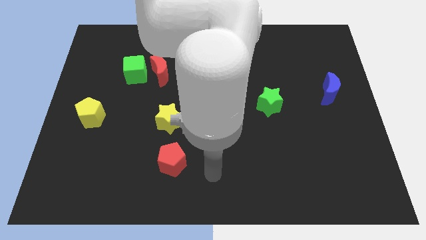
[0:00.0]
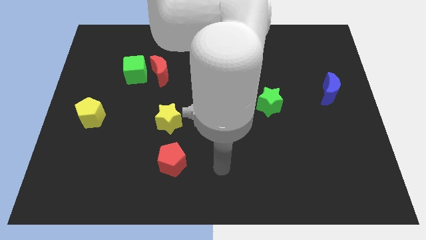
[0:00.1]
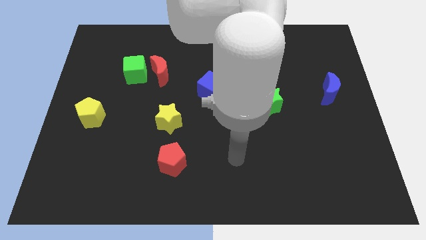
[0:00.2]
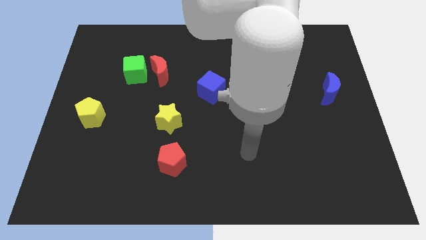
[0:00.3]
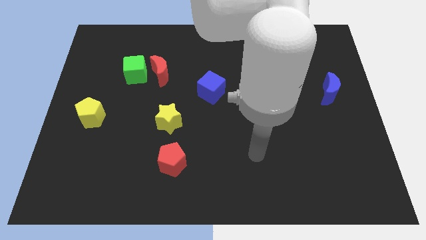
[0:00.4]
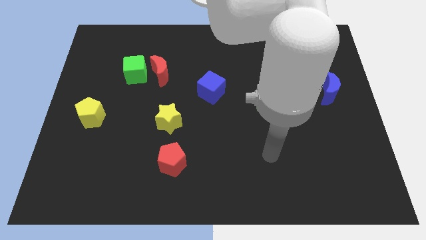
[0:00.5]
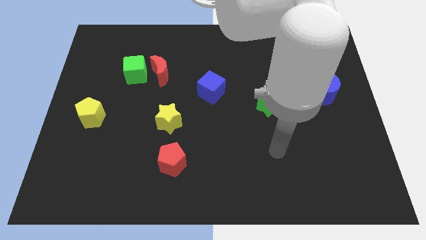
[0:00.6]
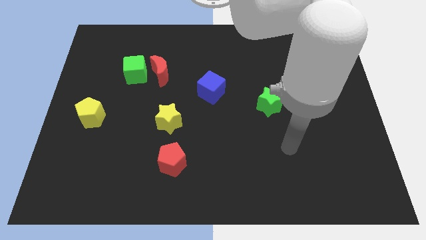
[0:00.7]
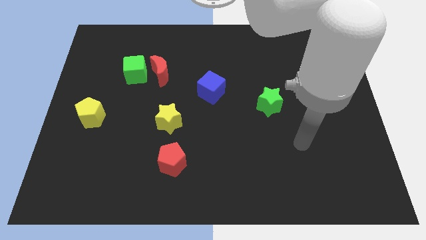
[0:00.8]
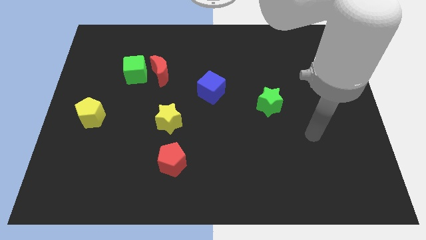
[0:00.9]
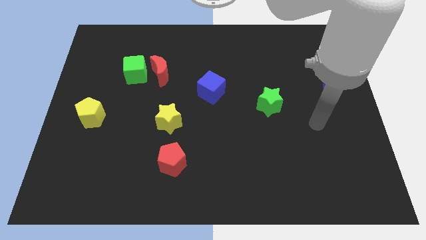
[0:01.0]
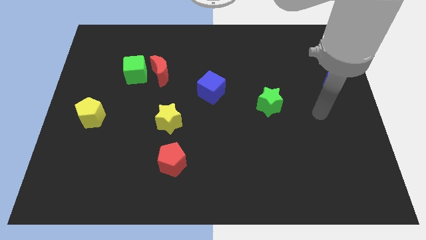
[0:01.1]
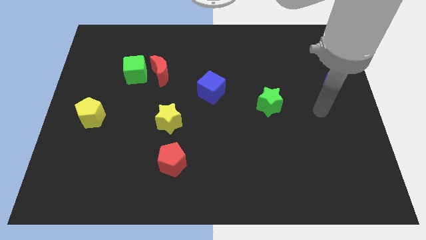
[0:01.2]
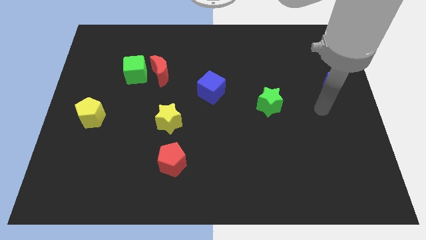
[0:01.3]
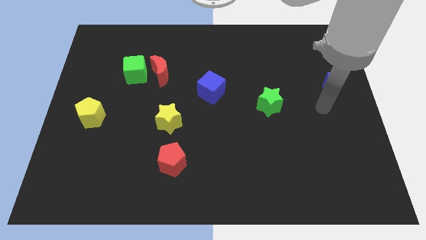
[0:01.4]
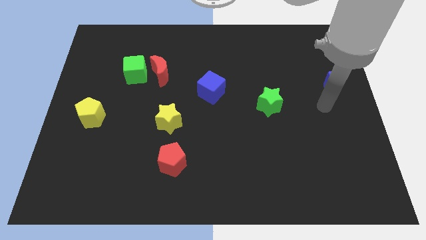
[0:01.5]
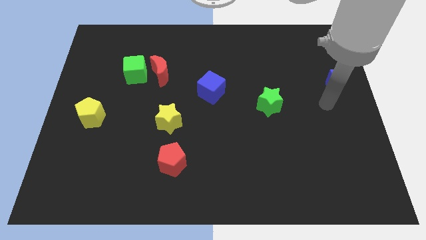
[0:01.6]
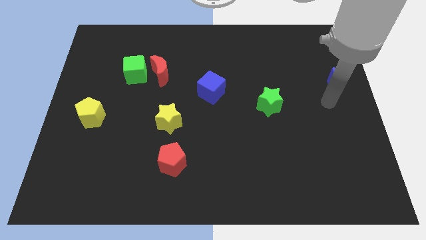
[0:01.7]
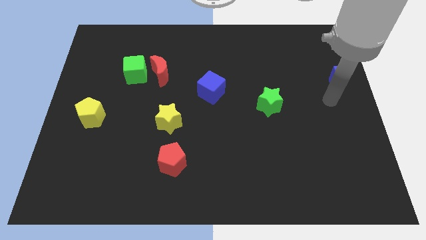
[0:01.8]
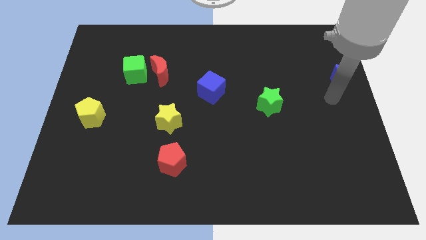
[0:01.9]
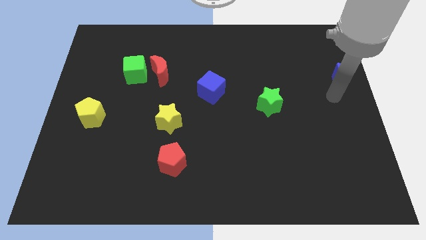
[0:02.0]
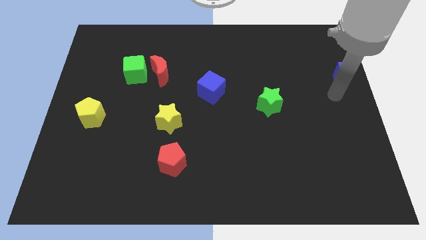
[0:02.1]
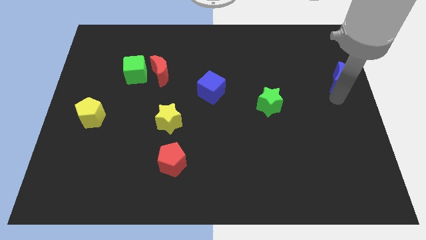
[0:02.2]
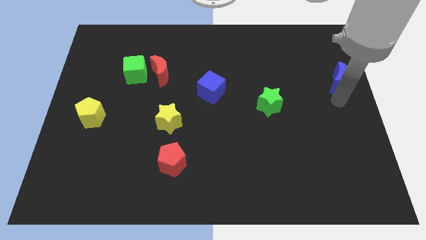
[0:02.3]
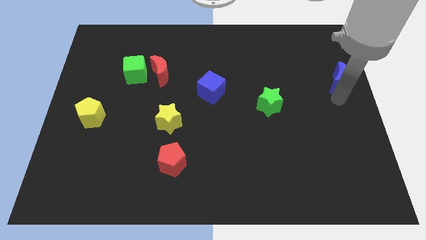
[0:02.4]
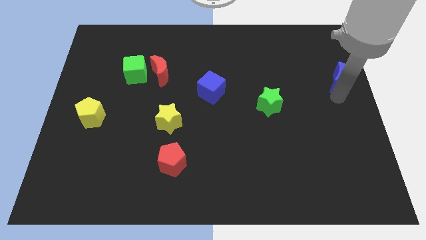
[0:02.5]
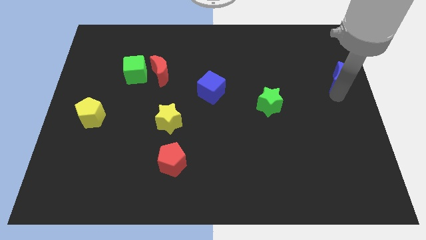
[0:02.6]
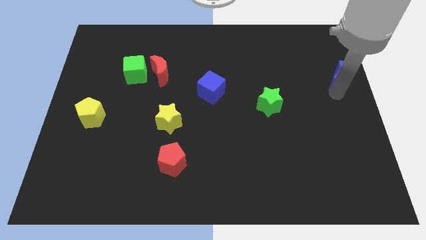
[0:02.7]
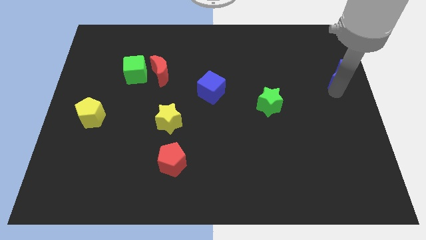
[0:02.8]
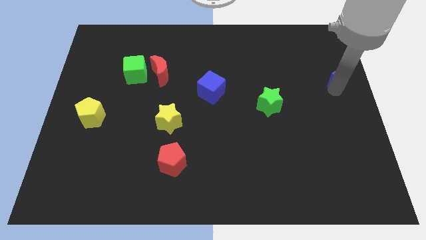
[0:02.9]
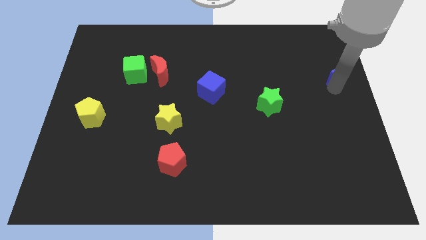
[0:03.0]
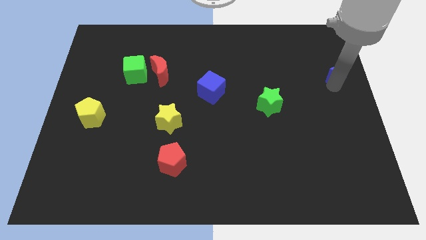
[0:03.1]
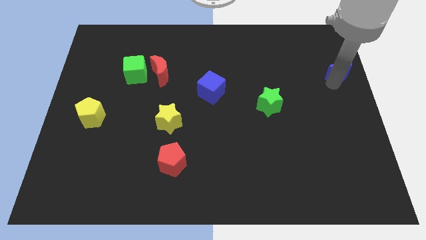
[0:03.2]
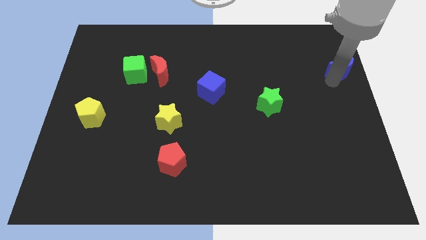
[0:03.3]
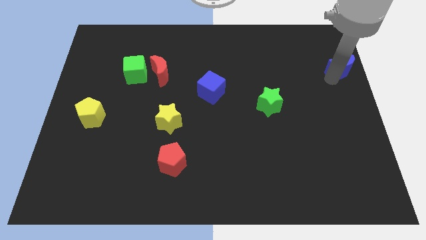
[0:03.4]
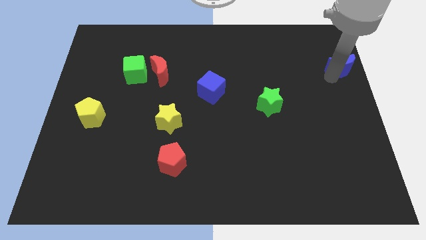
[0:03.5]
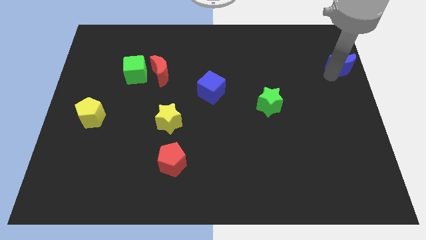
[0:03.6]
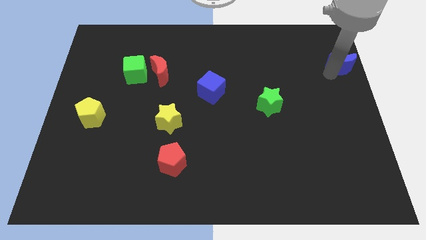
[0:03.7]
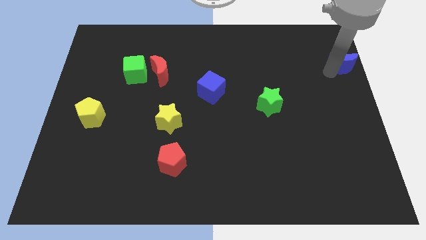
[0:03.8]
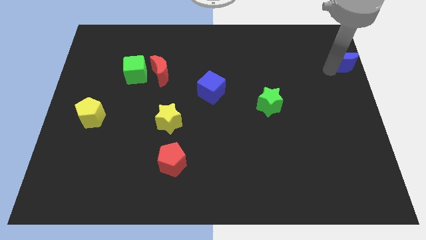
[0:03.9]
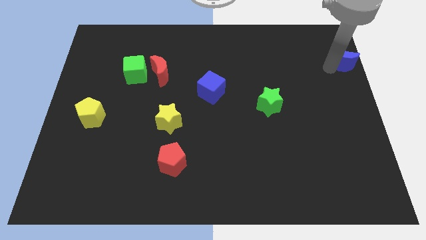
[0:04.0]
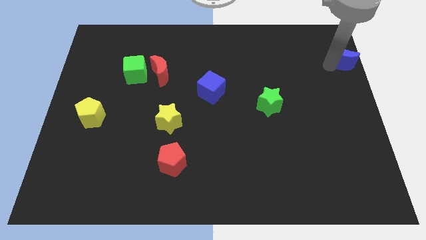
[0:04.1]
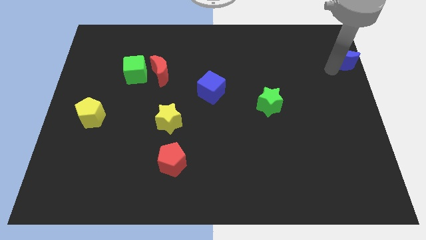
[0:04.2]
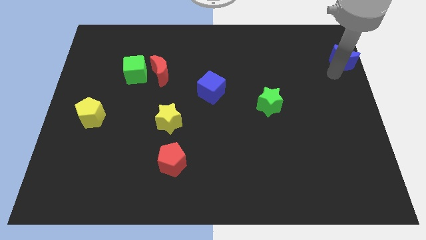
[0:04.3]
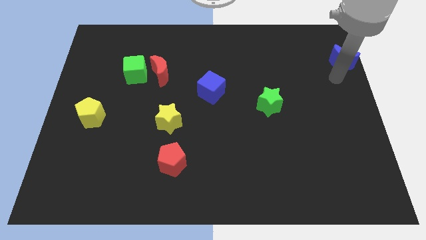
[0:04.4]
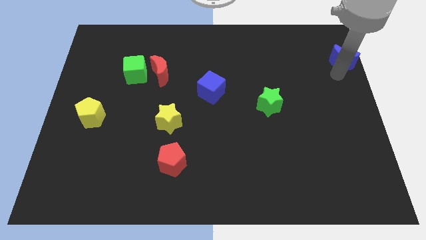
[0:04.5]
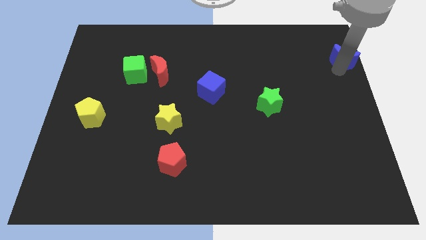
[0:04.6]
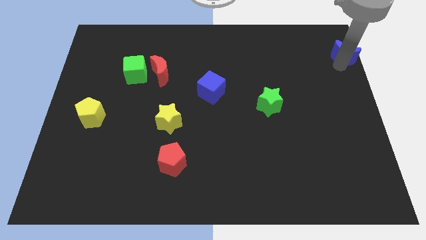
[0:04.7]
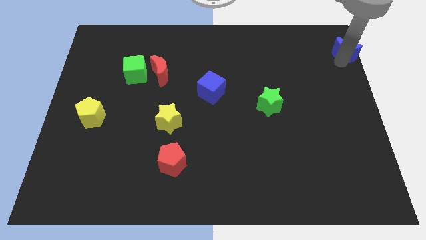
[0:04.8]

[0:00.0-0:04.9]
move the blue moon to the top right

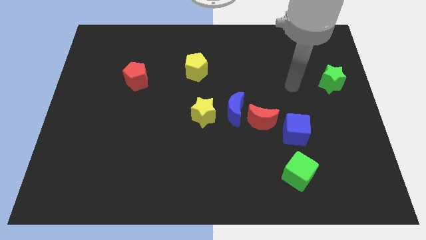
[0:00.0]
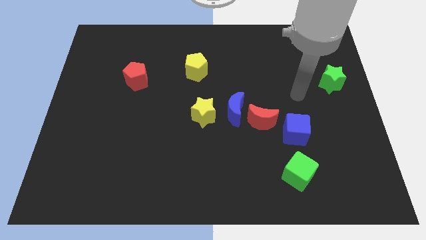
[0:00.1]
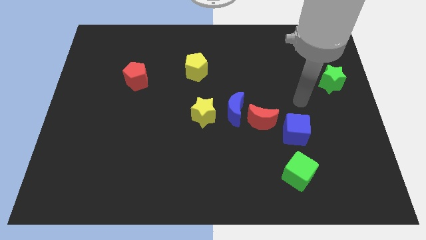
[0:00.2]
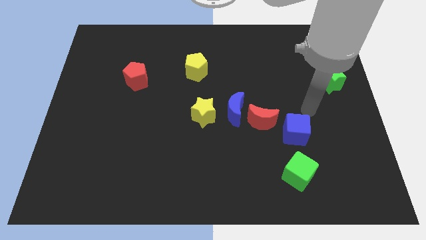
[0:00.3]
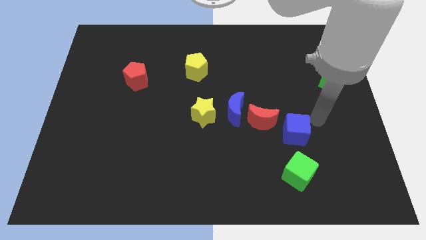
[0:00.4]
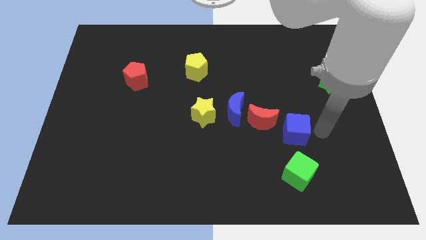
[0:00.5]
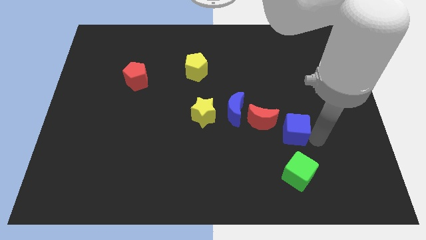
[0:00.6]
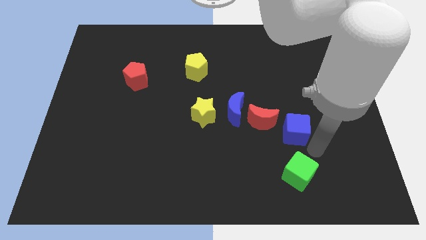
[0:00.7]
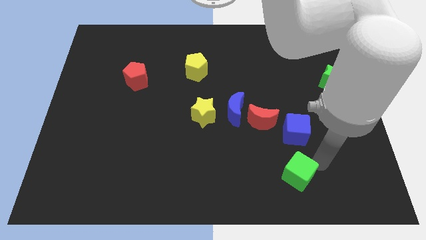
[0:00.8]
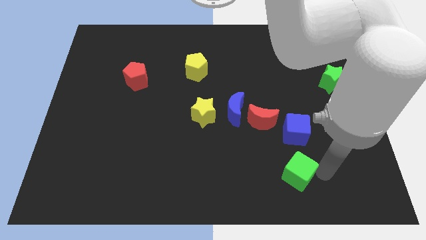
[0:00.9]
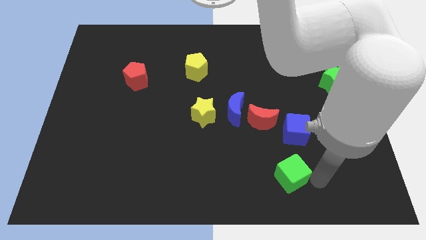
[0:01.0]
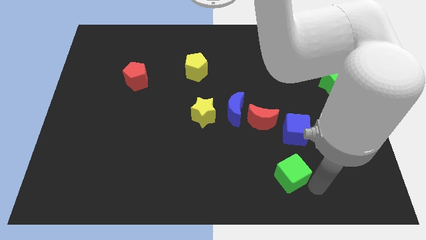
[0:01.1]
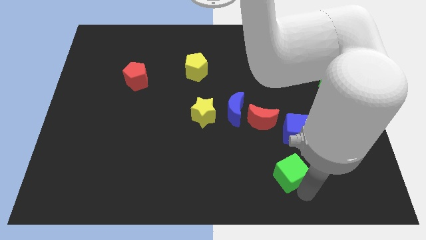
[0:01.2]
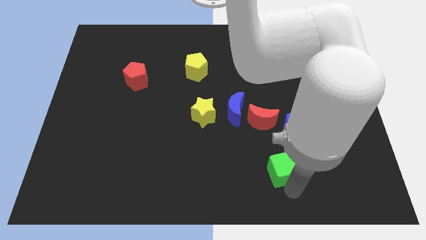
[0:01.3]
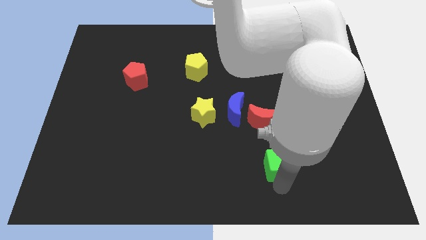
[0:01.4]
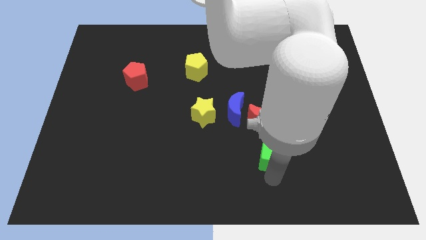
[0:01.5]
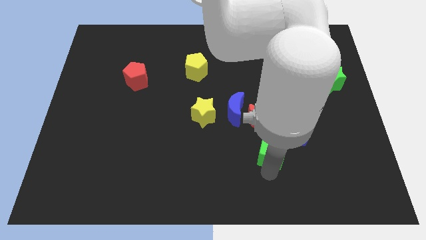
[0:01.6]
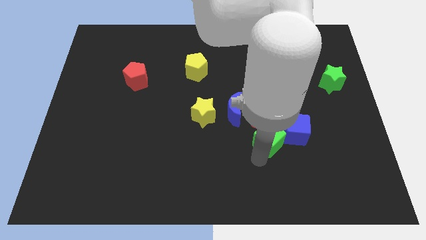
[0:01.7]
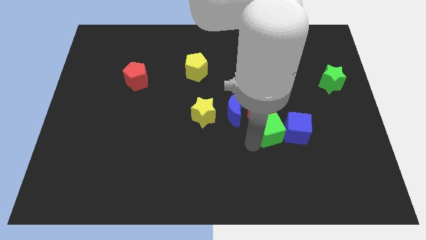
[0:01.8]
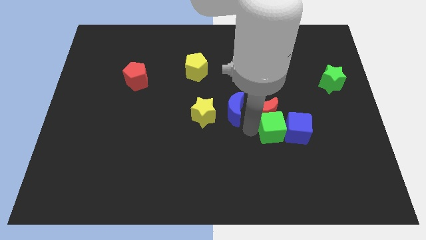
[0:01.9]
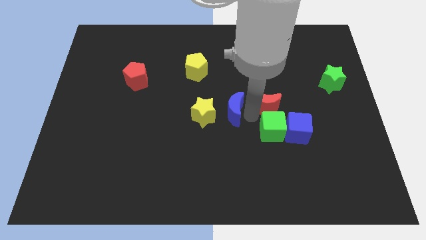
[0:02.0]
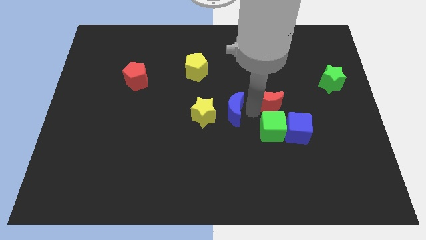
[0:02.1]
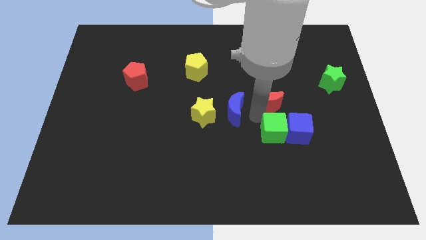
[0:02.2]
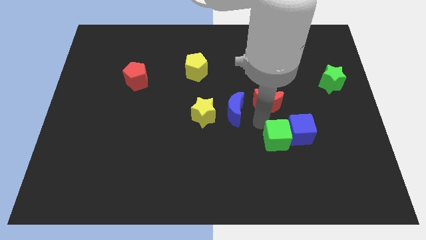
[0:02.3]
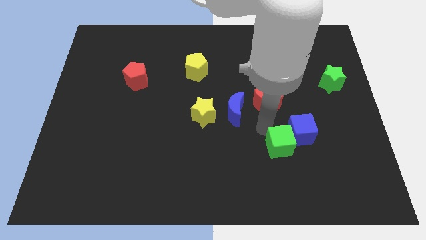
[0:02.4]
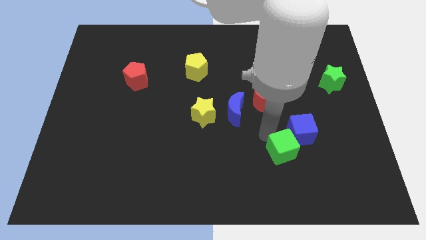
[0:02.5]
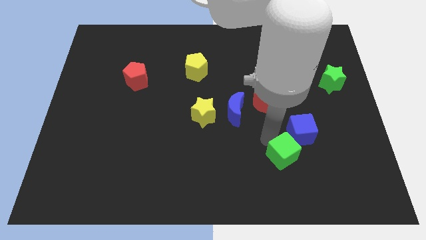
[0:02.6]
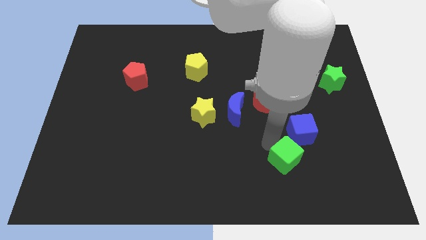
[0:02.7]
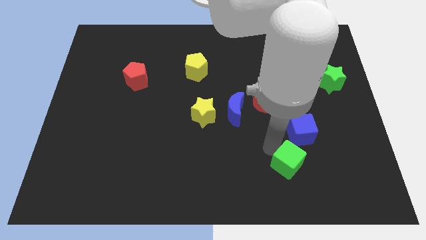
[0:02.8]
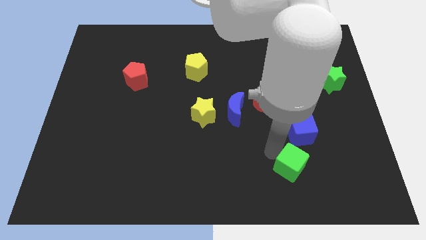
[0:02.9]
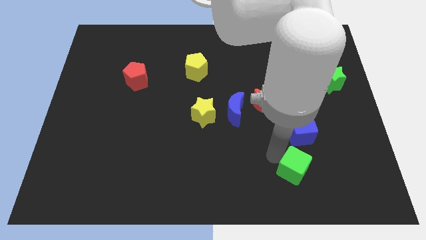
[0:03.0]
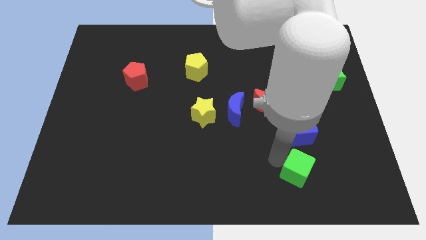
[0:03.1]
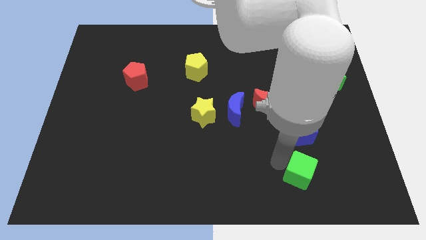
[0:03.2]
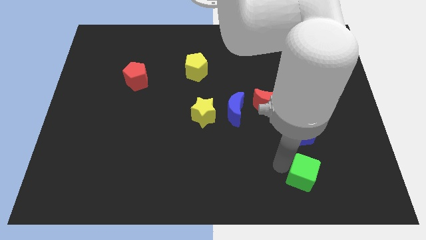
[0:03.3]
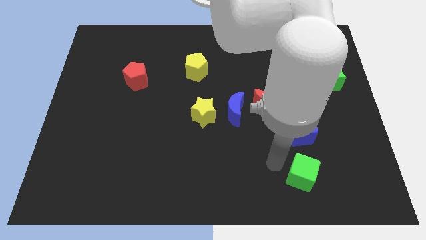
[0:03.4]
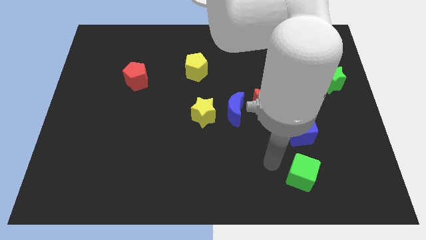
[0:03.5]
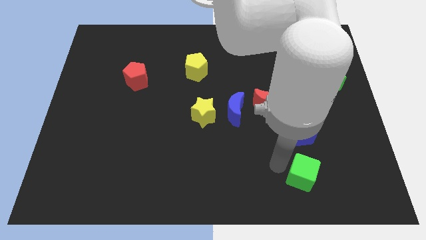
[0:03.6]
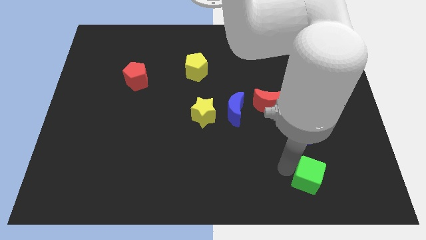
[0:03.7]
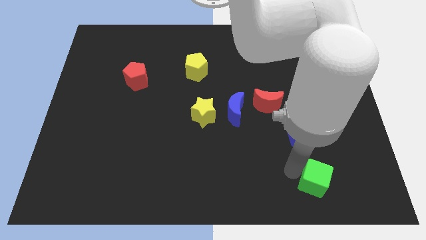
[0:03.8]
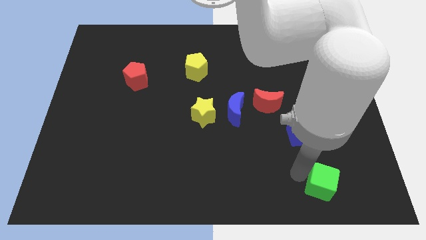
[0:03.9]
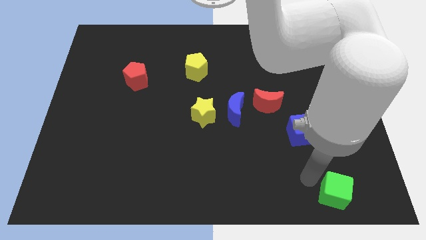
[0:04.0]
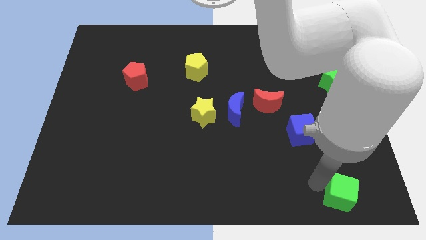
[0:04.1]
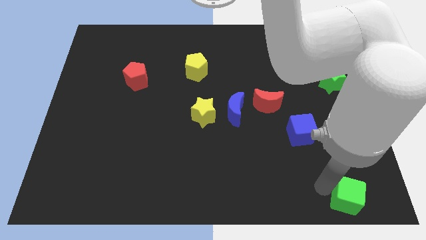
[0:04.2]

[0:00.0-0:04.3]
put the green cube to the bottom right corner
